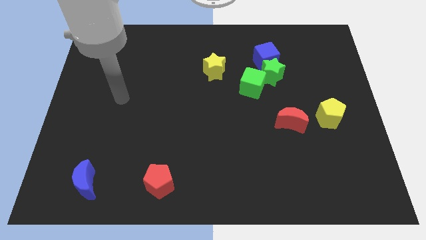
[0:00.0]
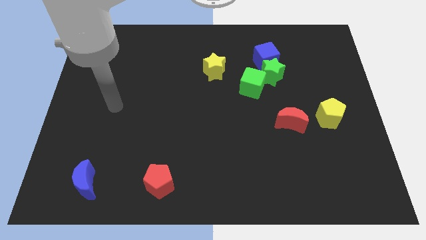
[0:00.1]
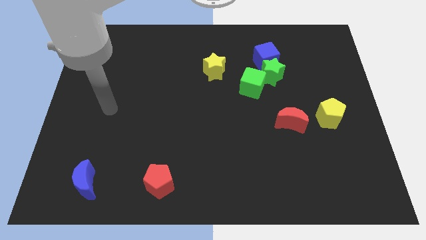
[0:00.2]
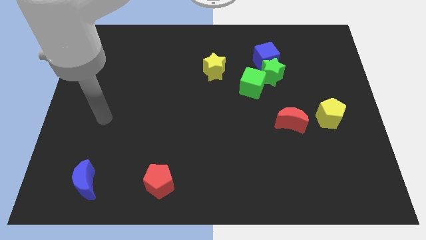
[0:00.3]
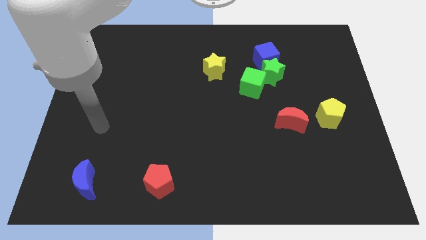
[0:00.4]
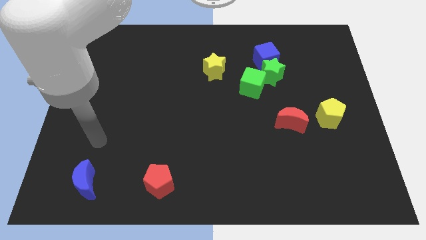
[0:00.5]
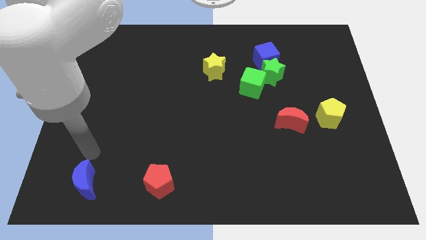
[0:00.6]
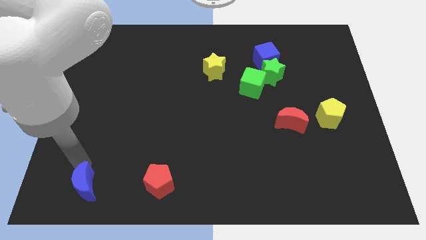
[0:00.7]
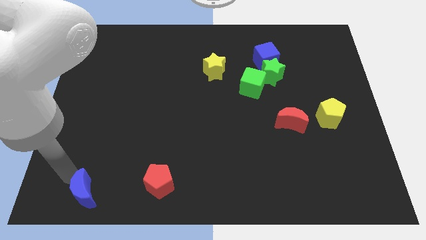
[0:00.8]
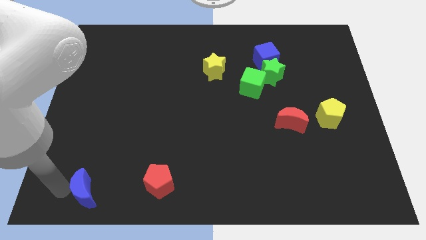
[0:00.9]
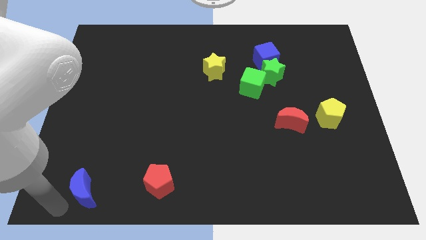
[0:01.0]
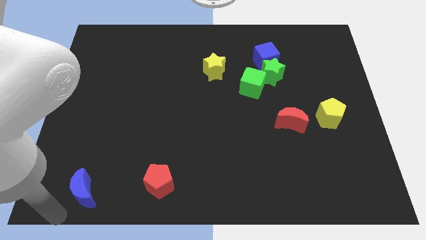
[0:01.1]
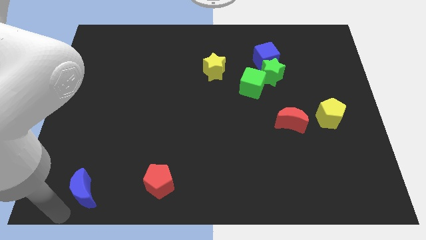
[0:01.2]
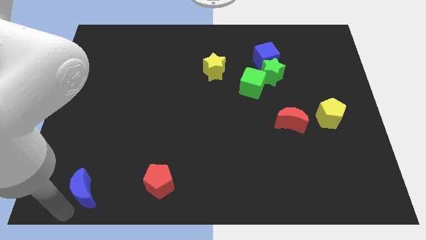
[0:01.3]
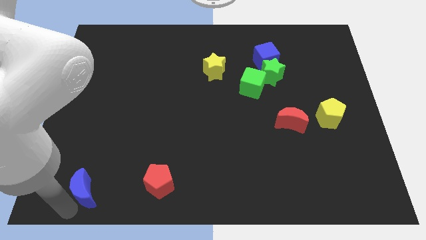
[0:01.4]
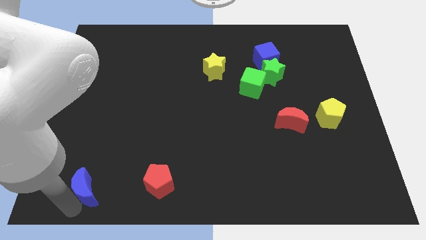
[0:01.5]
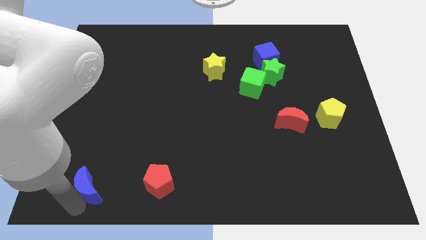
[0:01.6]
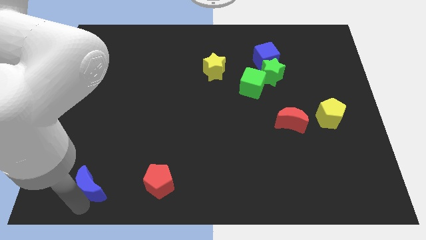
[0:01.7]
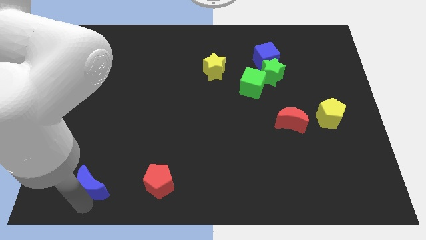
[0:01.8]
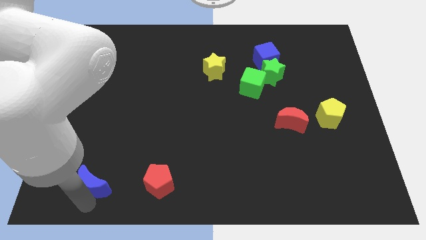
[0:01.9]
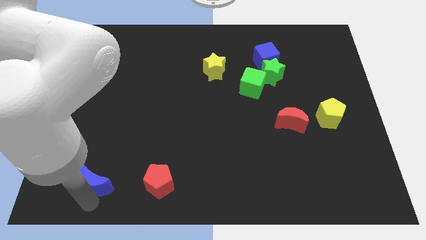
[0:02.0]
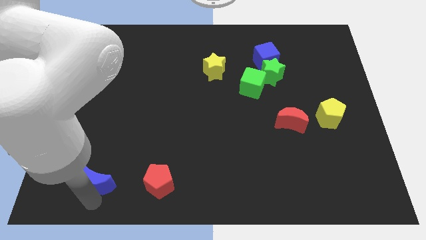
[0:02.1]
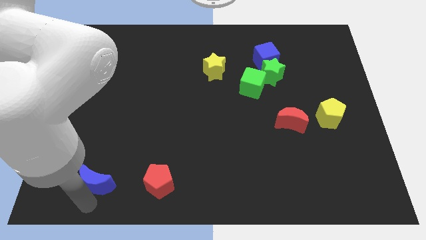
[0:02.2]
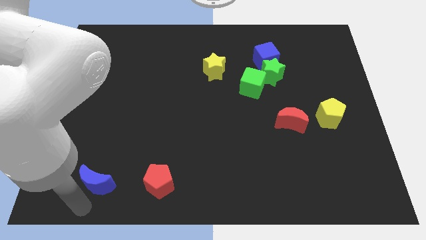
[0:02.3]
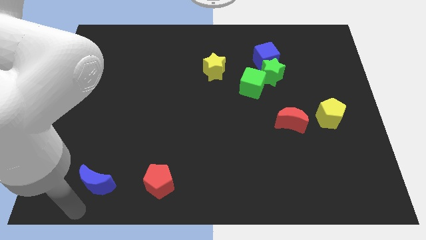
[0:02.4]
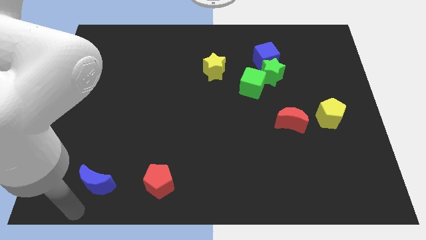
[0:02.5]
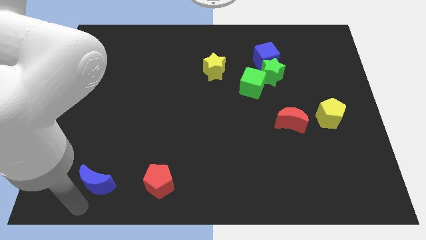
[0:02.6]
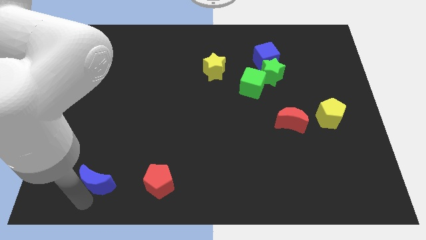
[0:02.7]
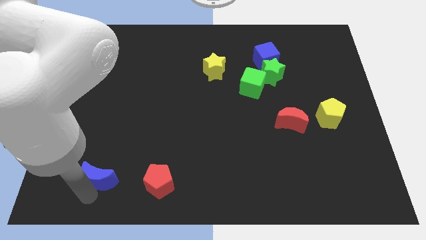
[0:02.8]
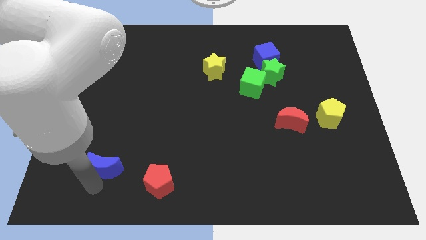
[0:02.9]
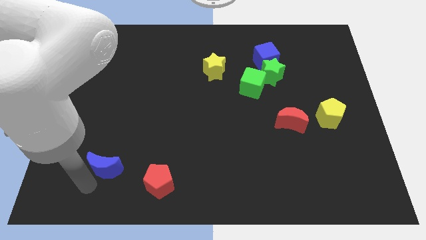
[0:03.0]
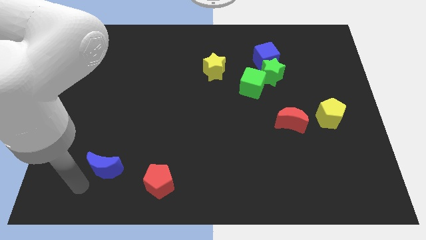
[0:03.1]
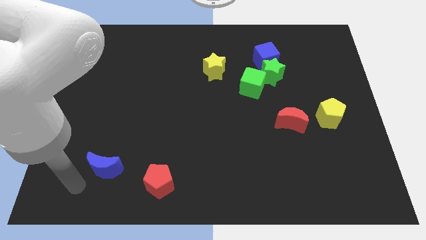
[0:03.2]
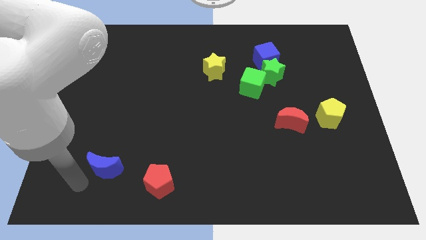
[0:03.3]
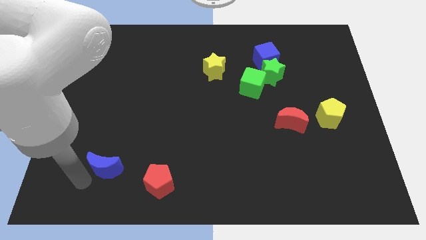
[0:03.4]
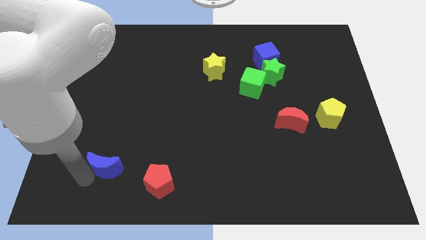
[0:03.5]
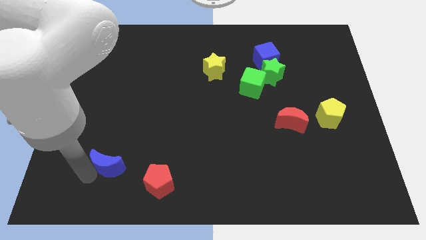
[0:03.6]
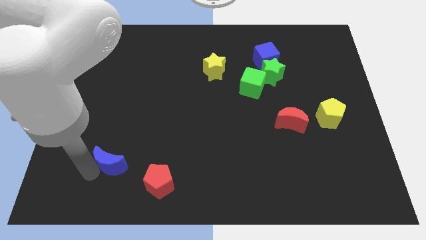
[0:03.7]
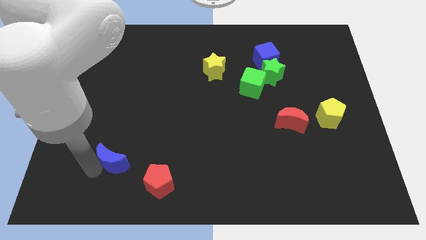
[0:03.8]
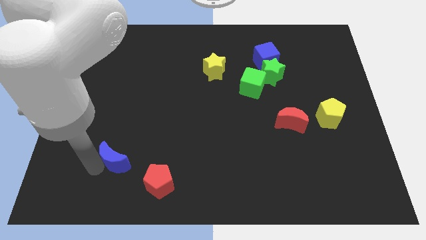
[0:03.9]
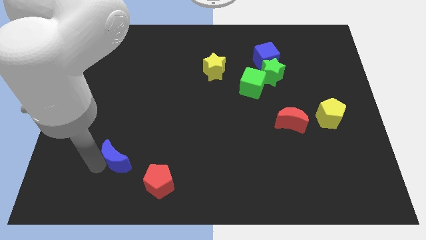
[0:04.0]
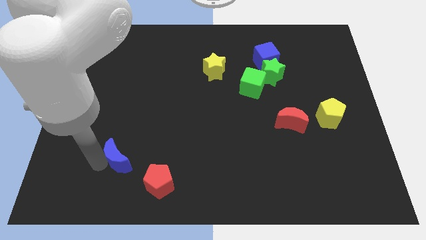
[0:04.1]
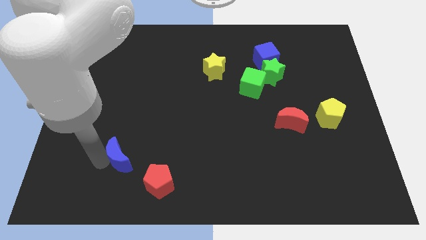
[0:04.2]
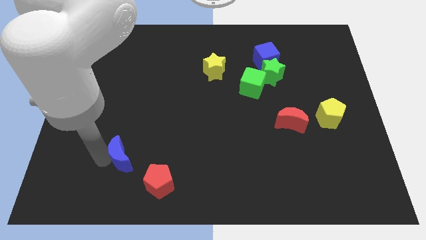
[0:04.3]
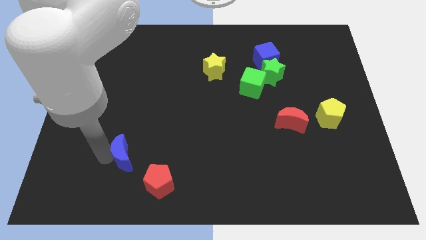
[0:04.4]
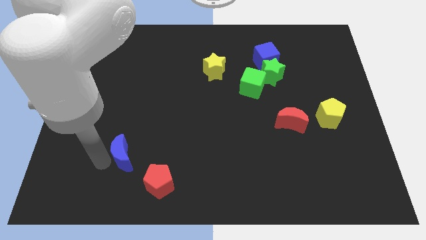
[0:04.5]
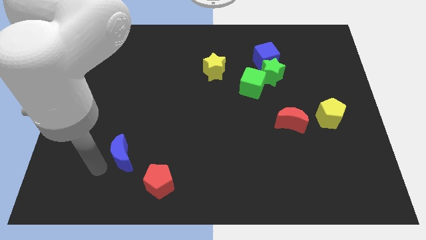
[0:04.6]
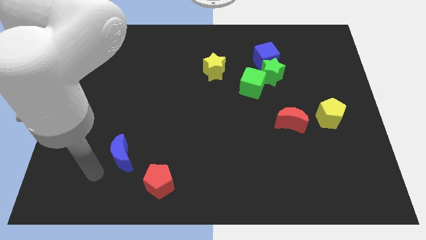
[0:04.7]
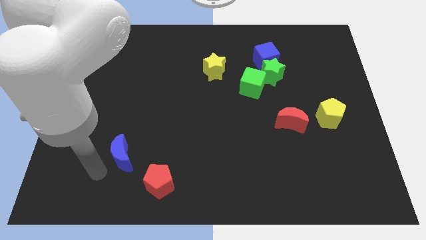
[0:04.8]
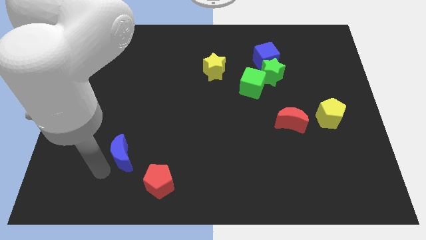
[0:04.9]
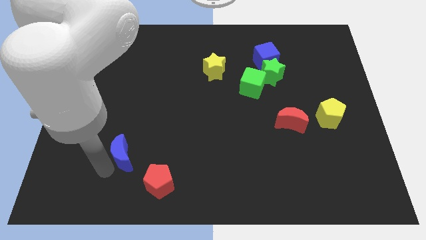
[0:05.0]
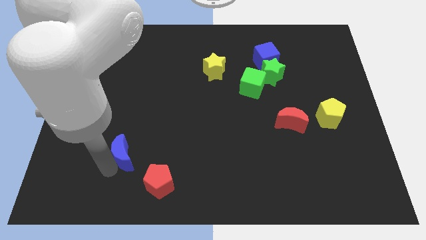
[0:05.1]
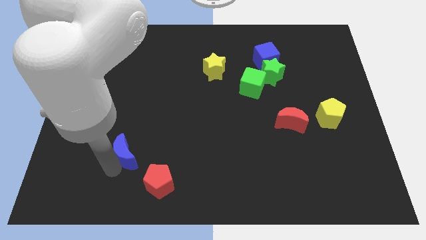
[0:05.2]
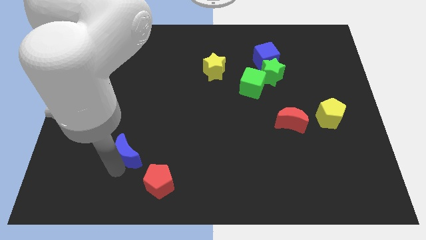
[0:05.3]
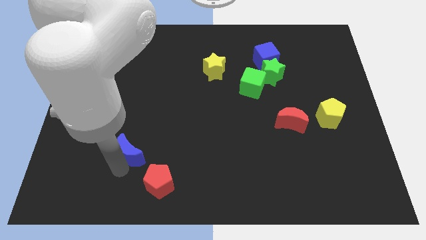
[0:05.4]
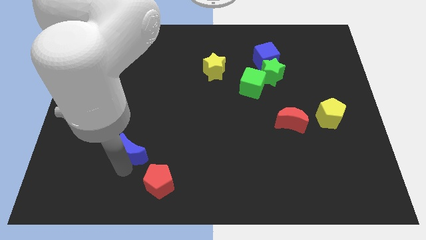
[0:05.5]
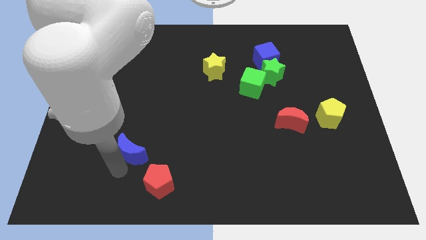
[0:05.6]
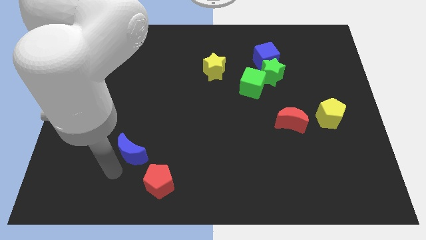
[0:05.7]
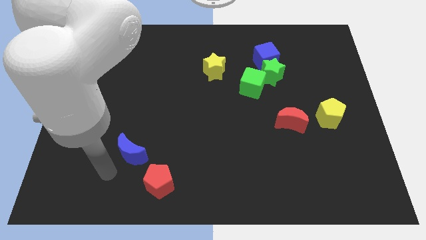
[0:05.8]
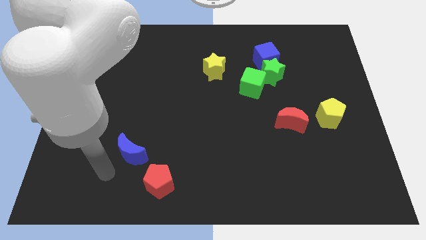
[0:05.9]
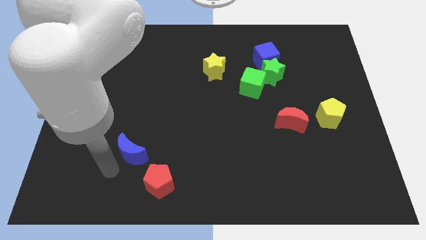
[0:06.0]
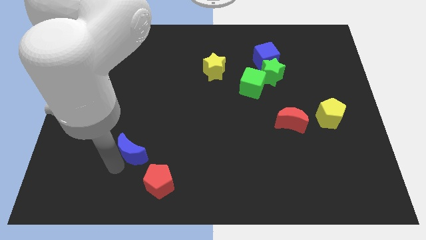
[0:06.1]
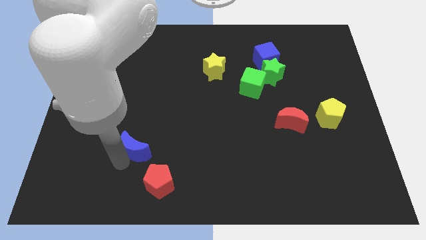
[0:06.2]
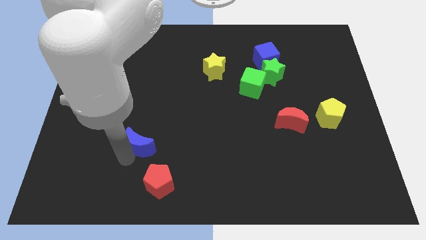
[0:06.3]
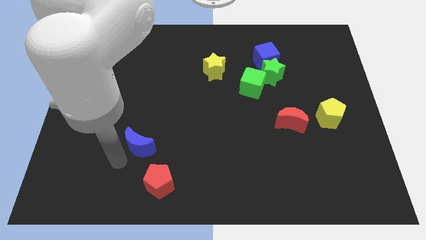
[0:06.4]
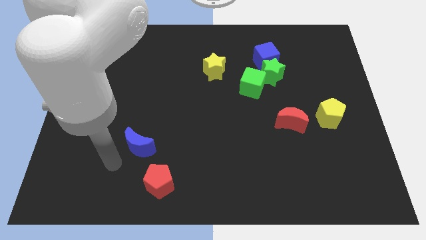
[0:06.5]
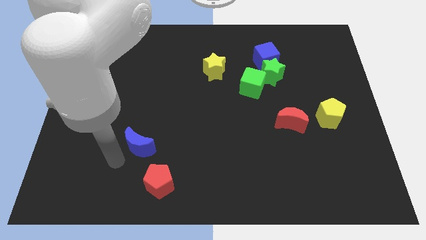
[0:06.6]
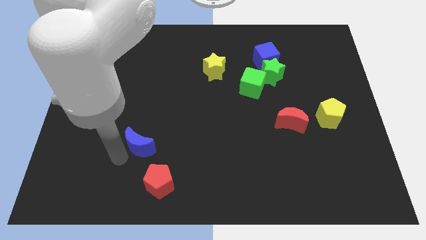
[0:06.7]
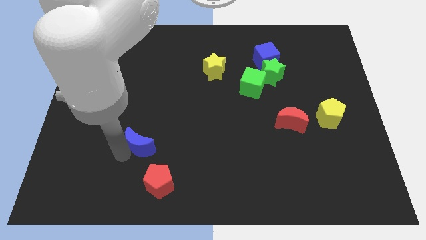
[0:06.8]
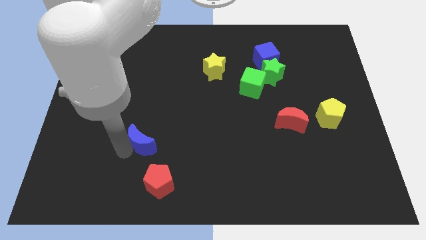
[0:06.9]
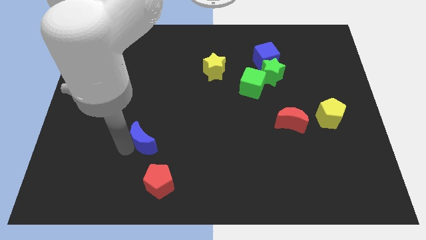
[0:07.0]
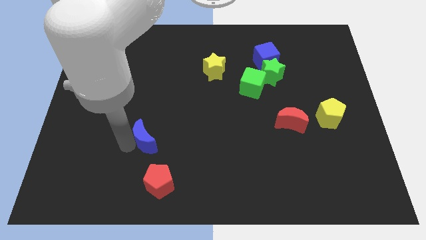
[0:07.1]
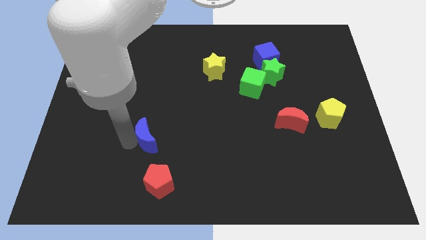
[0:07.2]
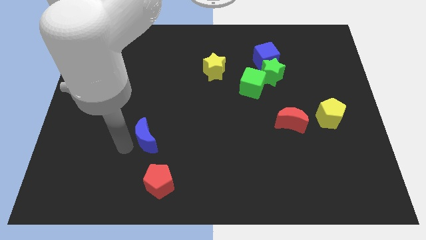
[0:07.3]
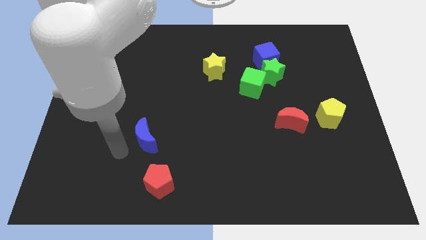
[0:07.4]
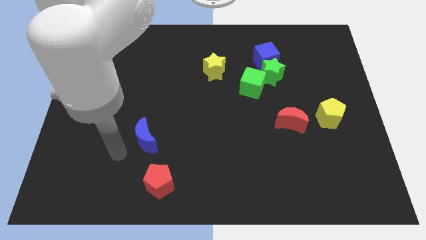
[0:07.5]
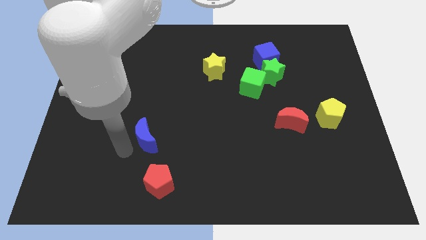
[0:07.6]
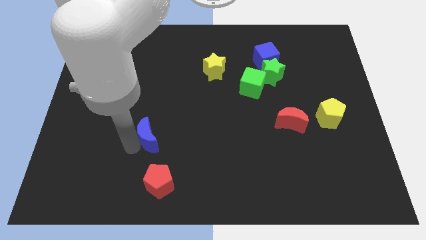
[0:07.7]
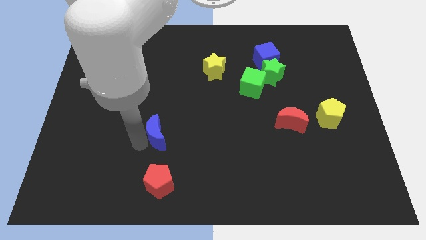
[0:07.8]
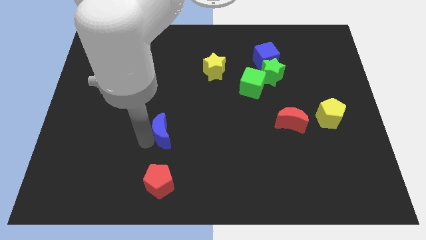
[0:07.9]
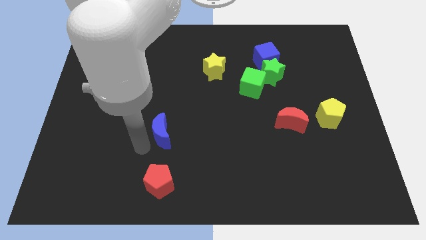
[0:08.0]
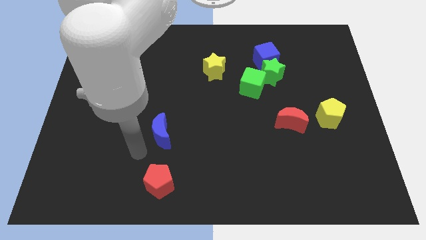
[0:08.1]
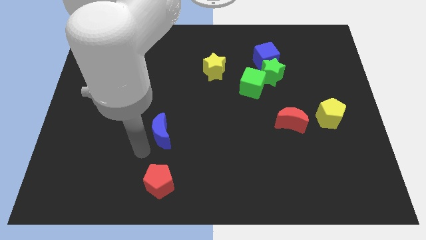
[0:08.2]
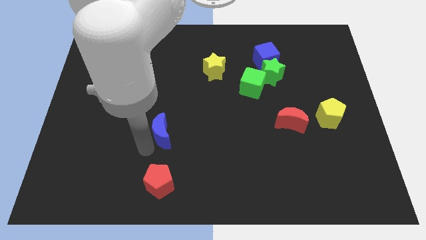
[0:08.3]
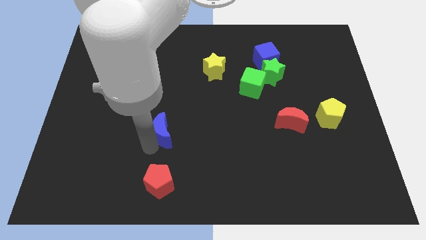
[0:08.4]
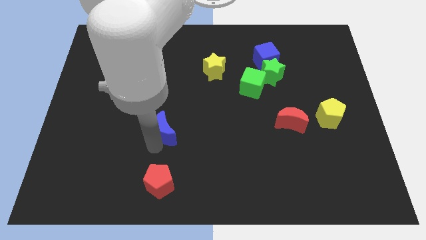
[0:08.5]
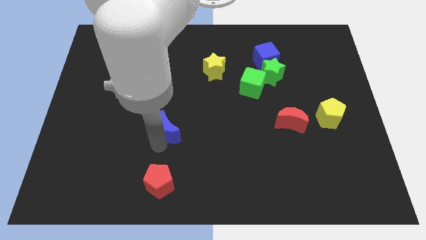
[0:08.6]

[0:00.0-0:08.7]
move the blue moon up and right diagonally
